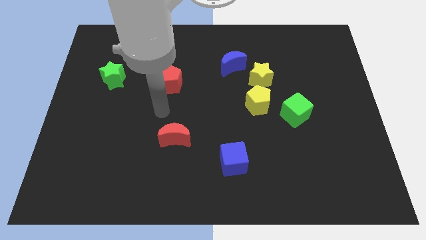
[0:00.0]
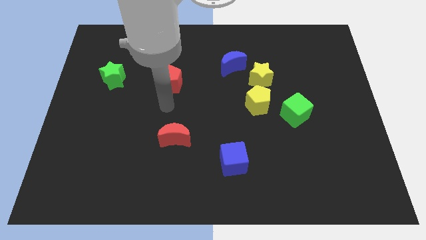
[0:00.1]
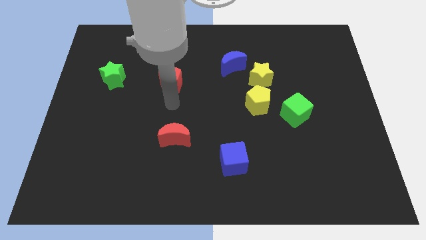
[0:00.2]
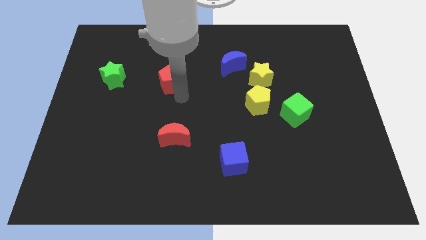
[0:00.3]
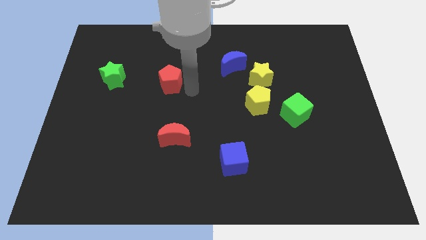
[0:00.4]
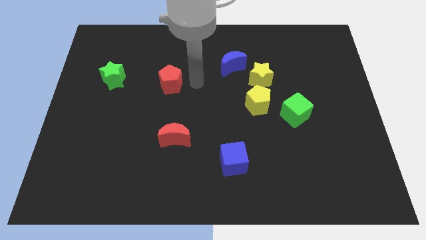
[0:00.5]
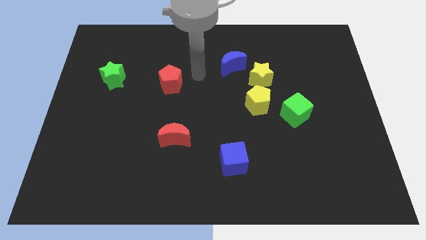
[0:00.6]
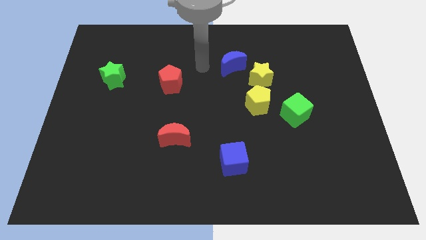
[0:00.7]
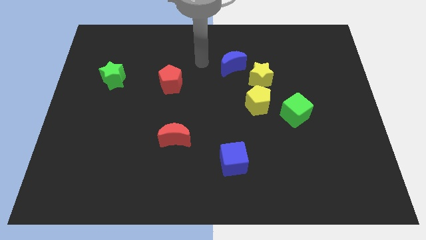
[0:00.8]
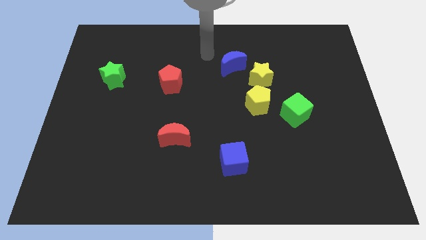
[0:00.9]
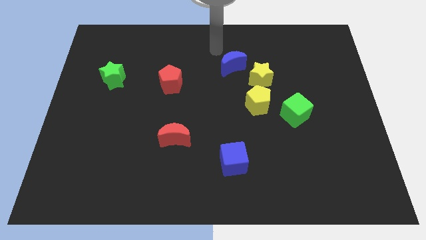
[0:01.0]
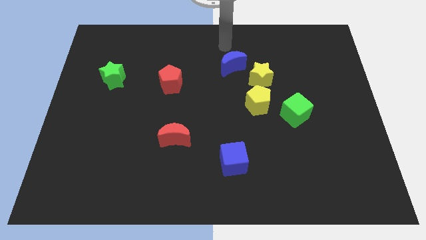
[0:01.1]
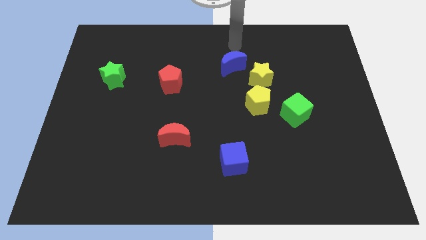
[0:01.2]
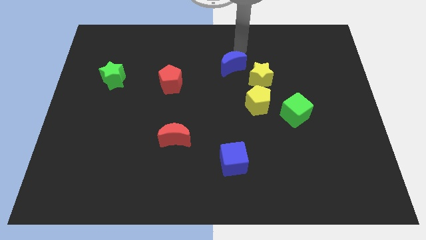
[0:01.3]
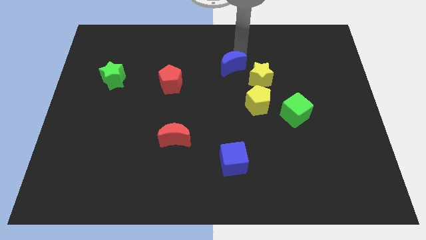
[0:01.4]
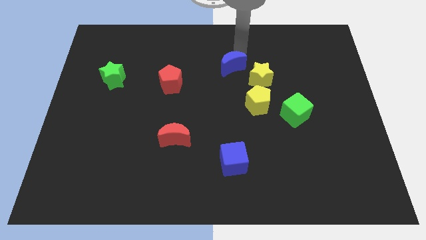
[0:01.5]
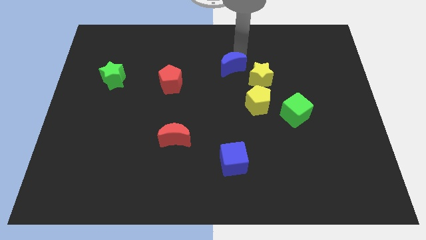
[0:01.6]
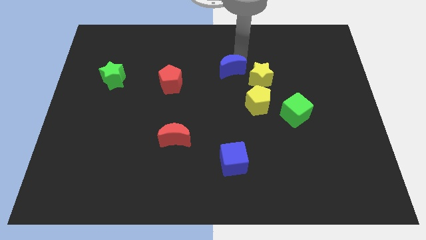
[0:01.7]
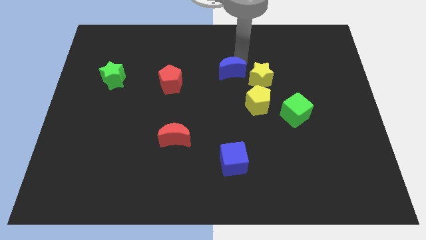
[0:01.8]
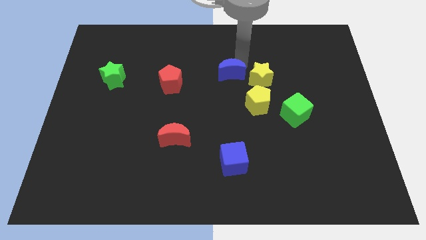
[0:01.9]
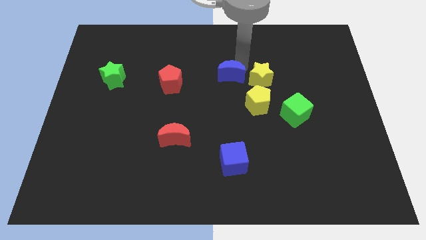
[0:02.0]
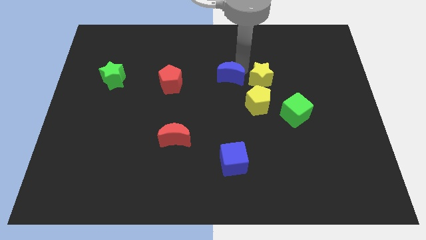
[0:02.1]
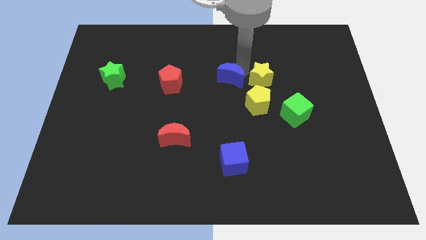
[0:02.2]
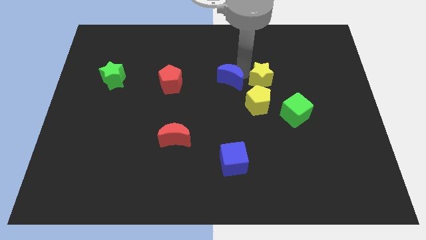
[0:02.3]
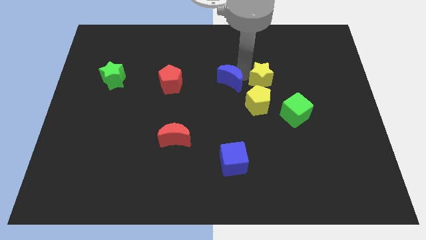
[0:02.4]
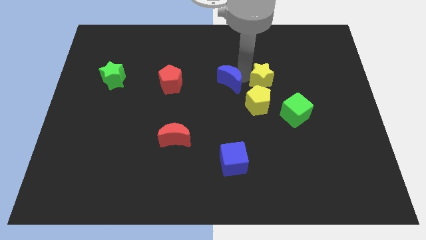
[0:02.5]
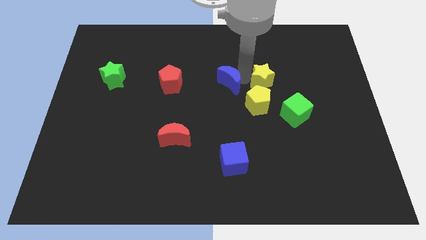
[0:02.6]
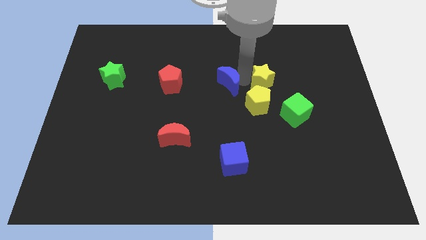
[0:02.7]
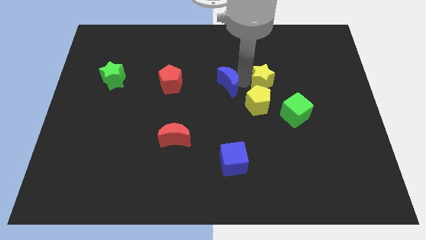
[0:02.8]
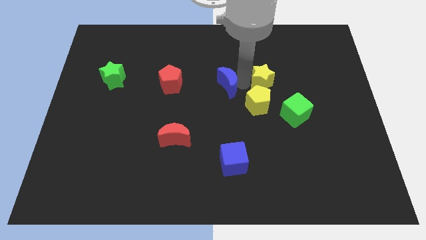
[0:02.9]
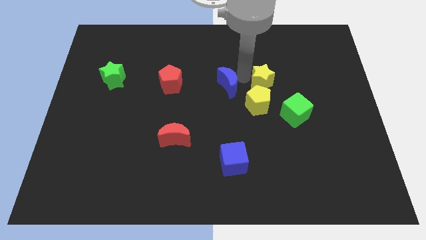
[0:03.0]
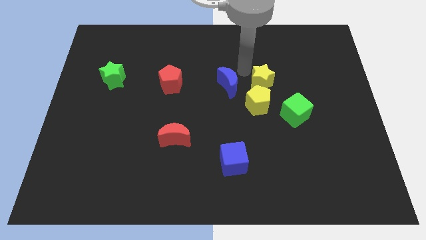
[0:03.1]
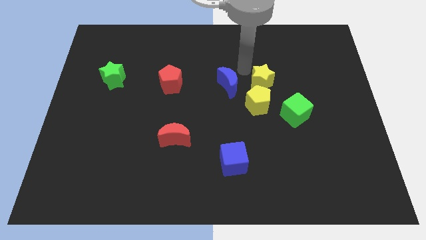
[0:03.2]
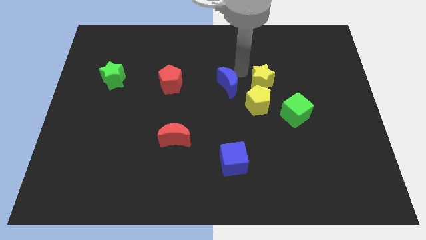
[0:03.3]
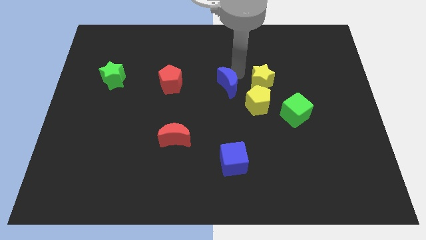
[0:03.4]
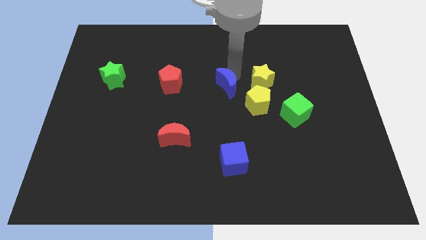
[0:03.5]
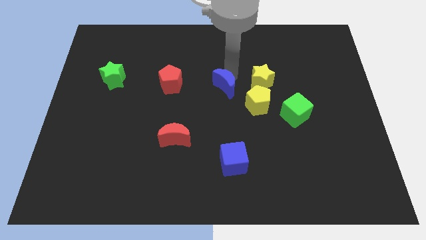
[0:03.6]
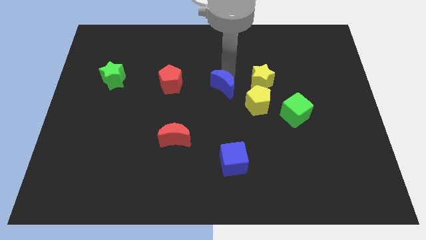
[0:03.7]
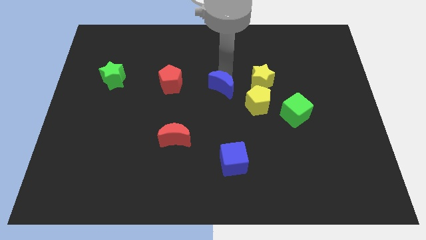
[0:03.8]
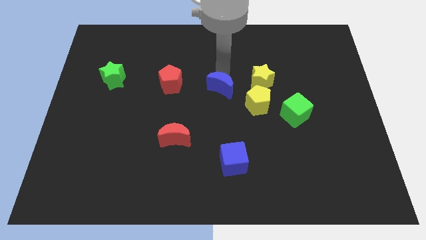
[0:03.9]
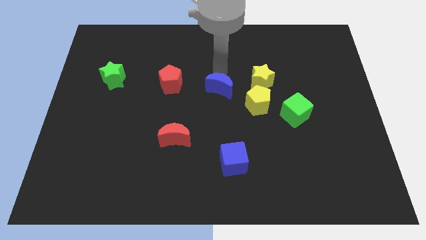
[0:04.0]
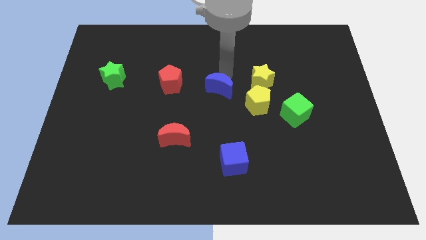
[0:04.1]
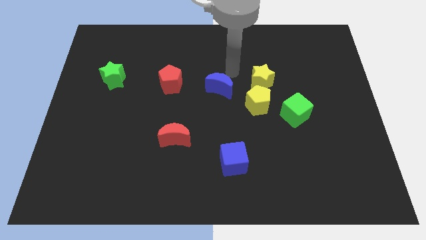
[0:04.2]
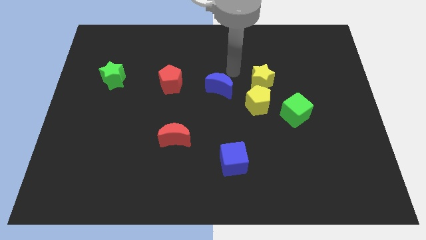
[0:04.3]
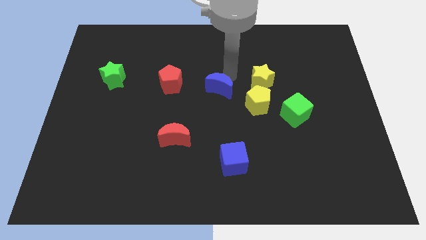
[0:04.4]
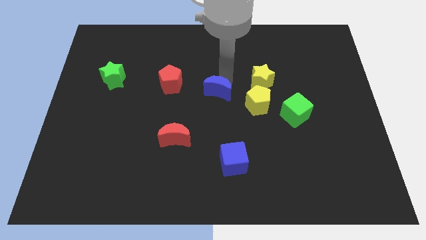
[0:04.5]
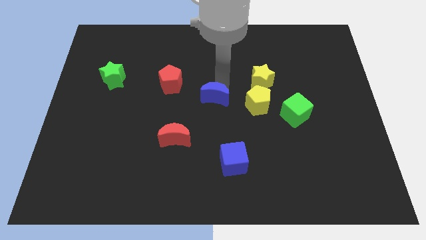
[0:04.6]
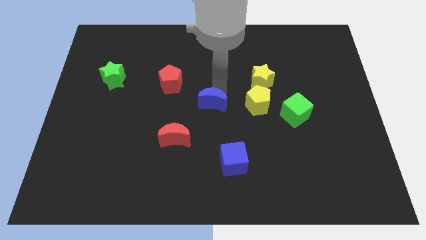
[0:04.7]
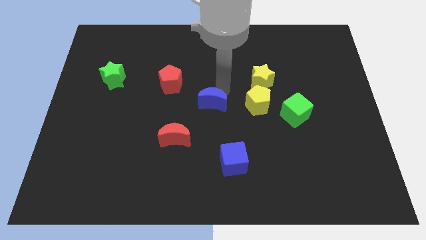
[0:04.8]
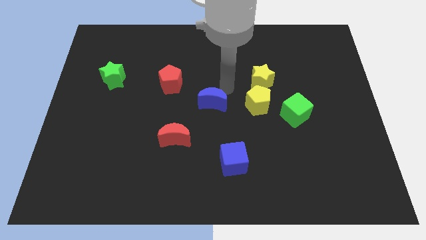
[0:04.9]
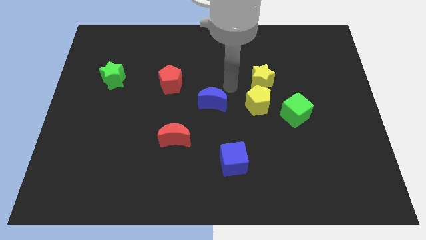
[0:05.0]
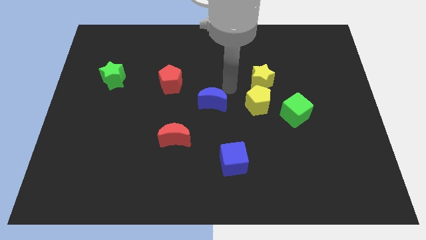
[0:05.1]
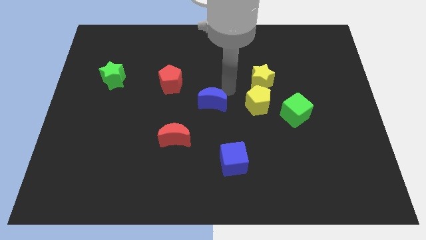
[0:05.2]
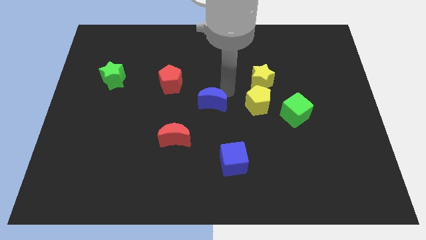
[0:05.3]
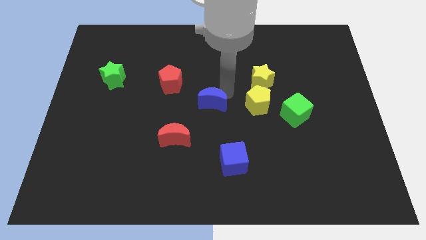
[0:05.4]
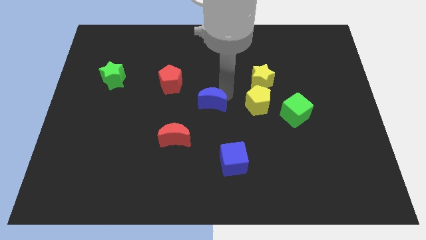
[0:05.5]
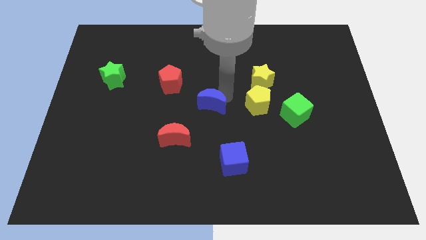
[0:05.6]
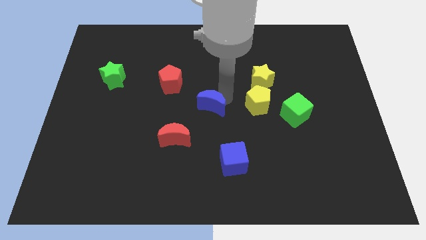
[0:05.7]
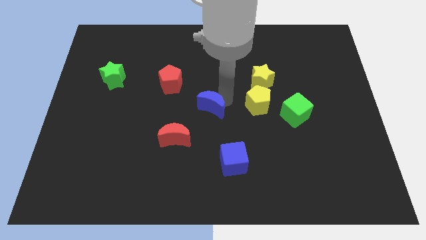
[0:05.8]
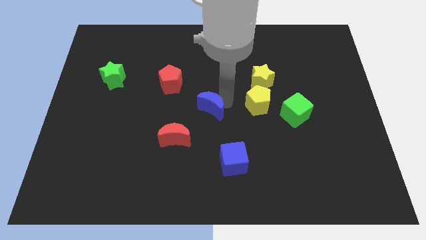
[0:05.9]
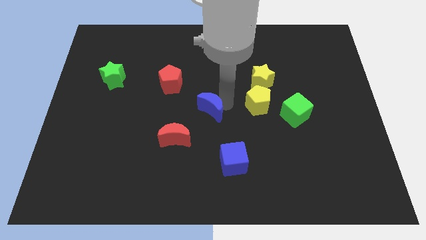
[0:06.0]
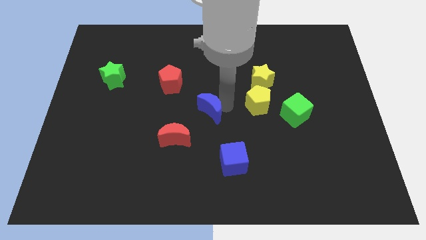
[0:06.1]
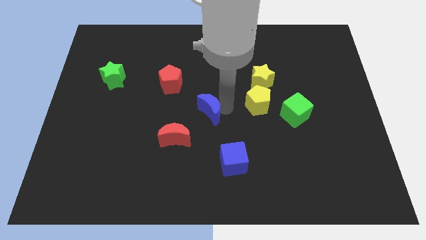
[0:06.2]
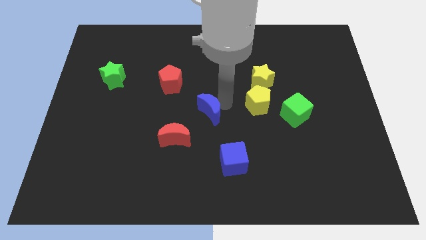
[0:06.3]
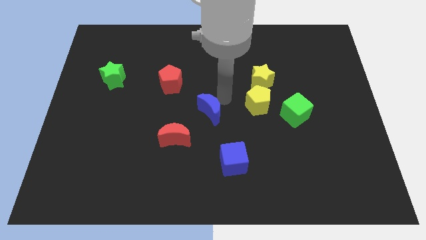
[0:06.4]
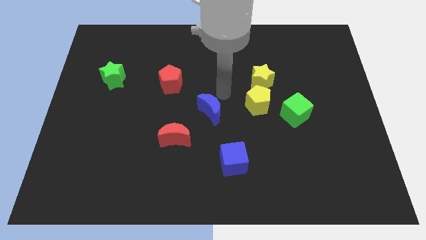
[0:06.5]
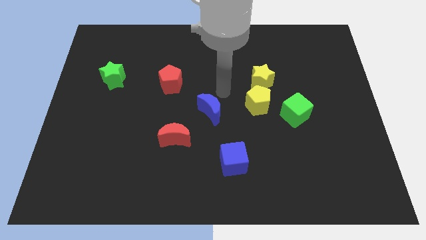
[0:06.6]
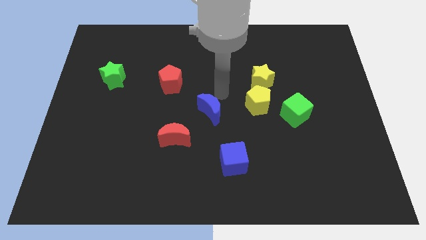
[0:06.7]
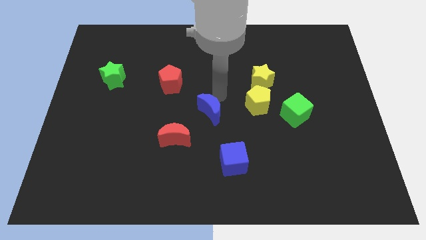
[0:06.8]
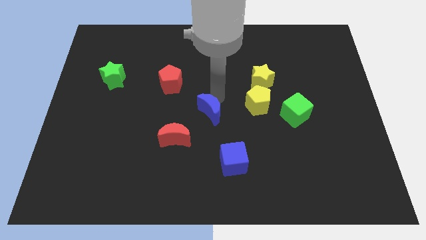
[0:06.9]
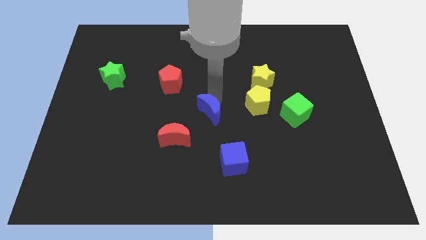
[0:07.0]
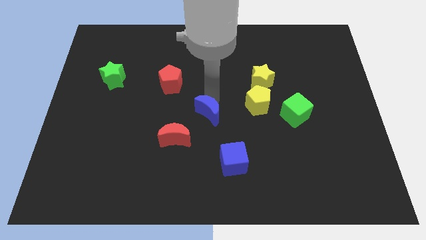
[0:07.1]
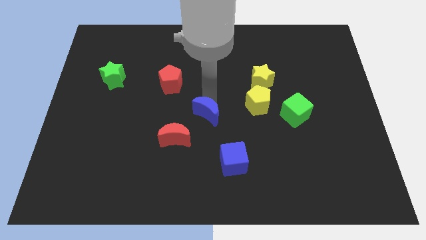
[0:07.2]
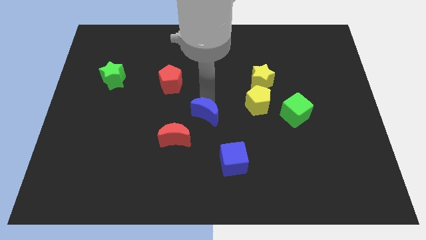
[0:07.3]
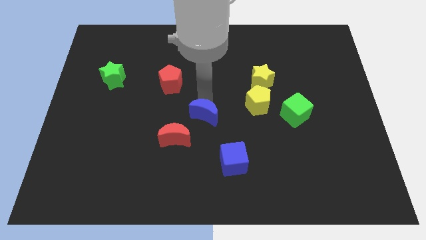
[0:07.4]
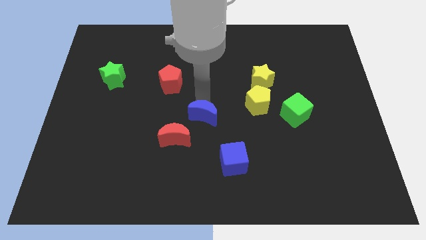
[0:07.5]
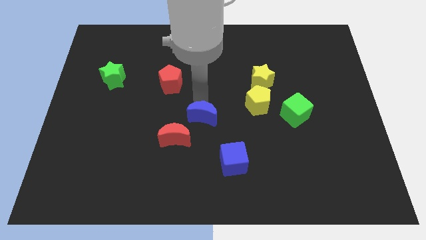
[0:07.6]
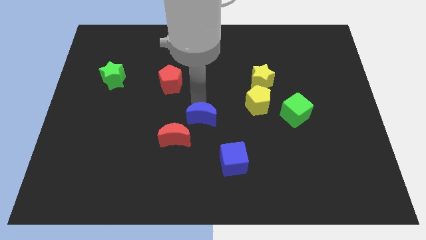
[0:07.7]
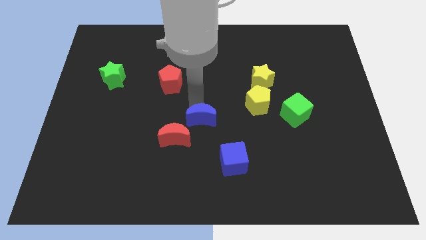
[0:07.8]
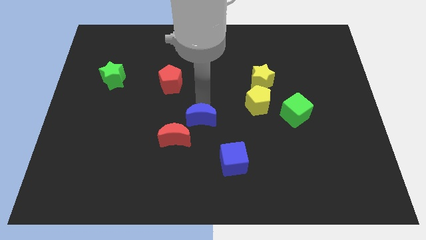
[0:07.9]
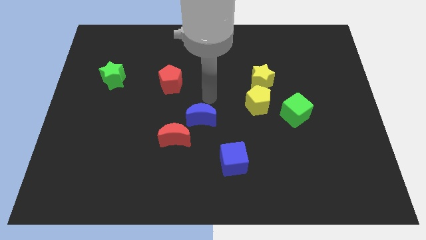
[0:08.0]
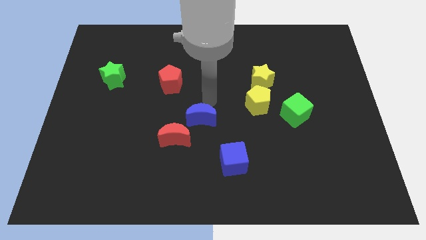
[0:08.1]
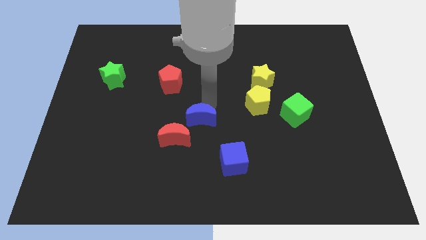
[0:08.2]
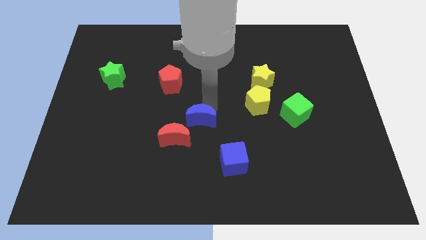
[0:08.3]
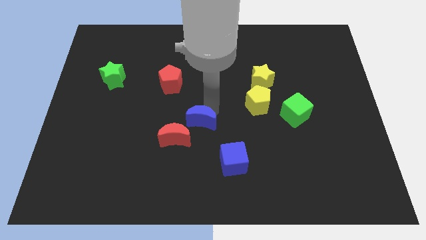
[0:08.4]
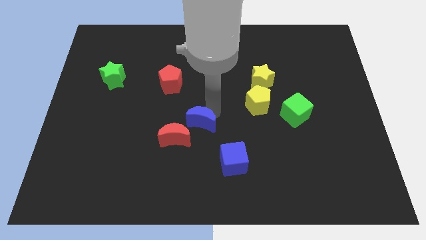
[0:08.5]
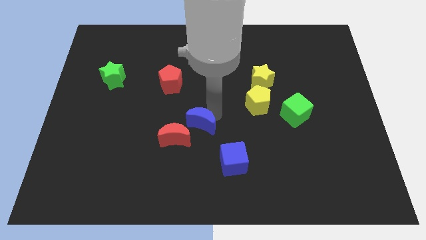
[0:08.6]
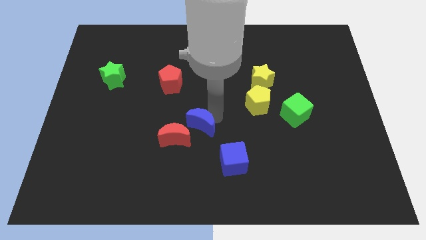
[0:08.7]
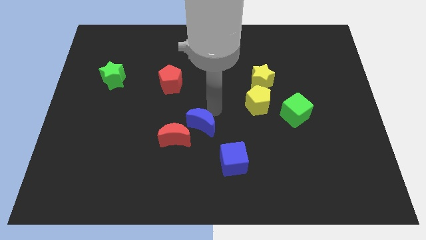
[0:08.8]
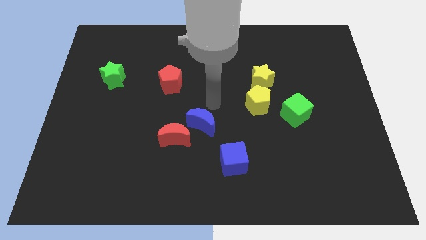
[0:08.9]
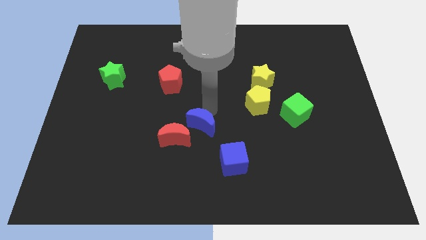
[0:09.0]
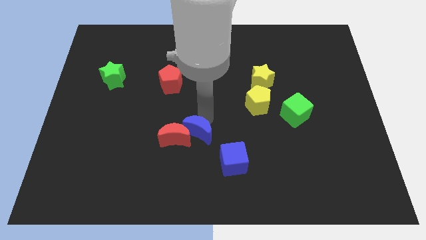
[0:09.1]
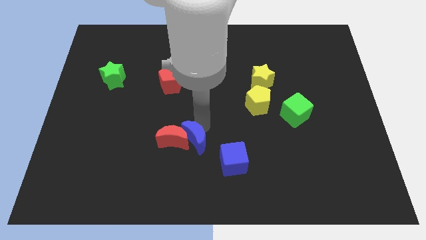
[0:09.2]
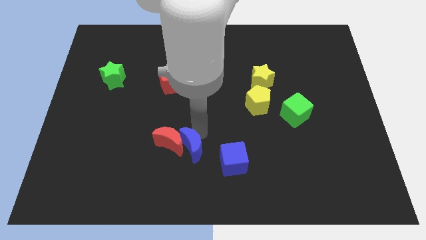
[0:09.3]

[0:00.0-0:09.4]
slide the blue moon just left of the blue cube
